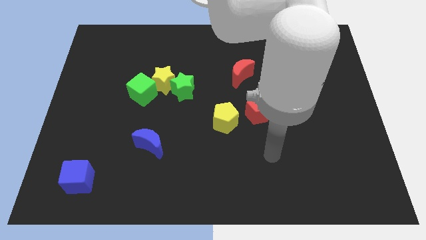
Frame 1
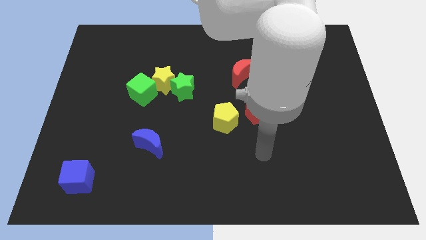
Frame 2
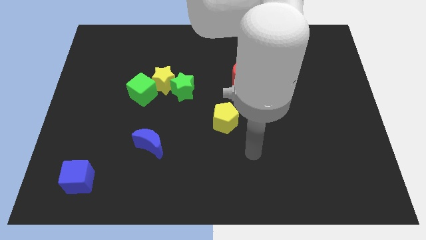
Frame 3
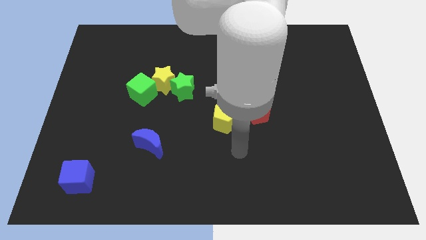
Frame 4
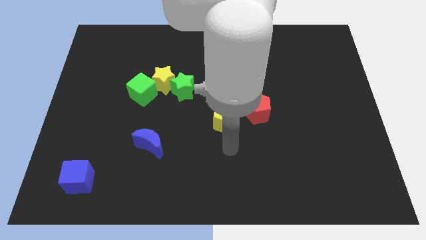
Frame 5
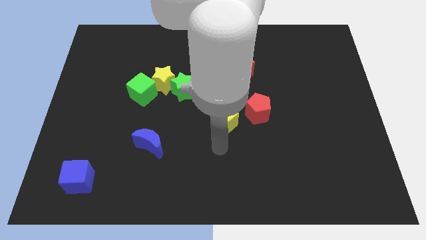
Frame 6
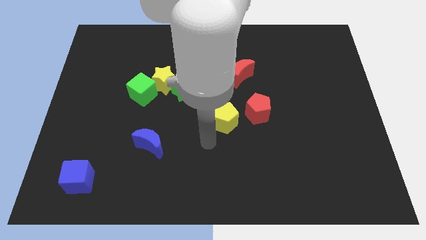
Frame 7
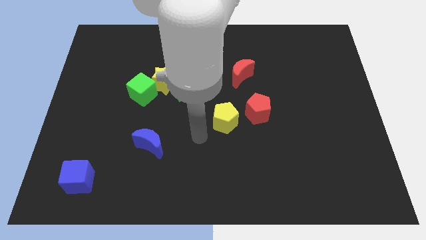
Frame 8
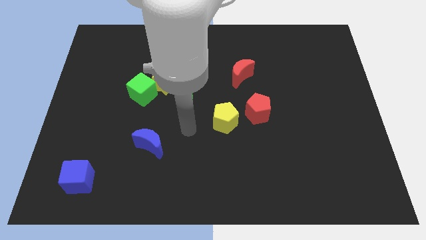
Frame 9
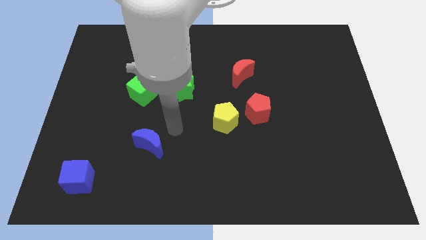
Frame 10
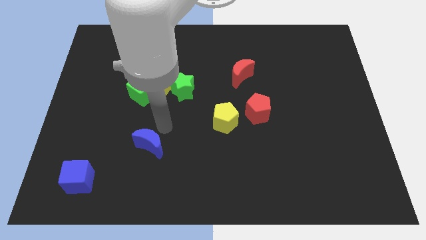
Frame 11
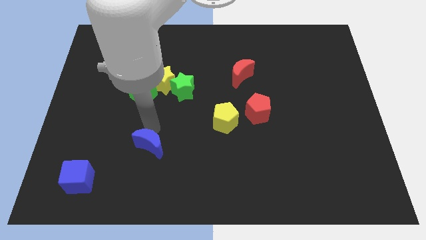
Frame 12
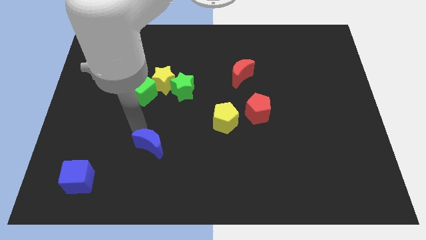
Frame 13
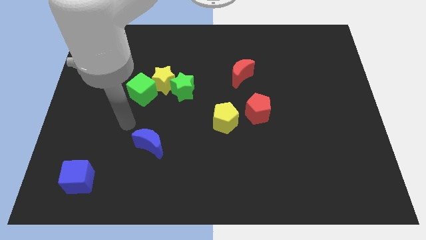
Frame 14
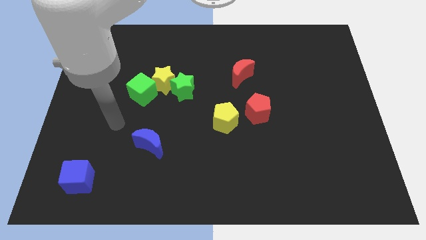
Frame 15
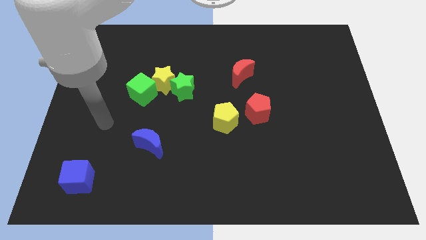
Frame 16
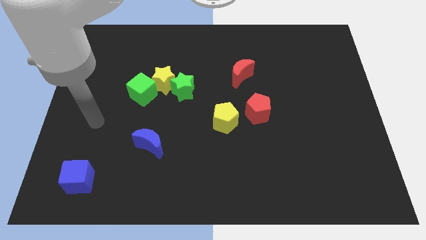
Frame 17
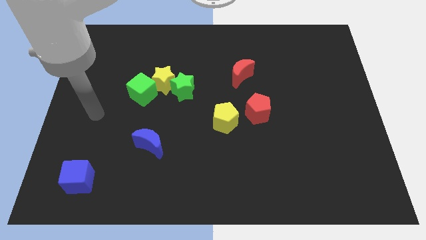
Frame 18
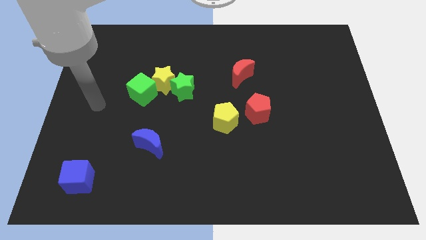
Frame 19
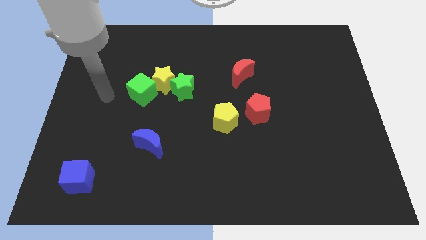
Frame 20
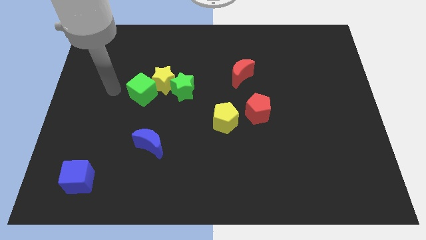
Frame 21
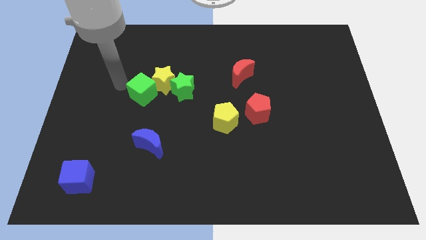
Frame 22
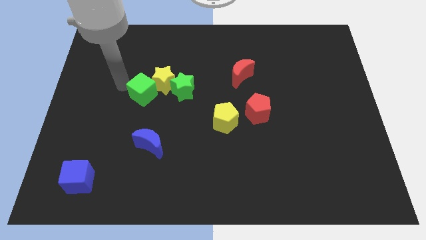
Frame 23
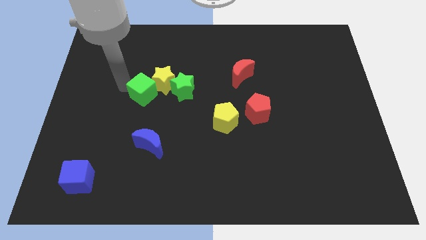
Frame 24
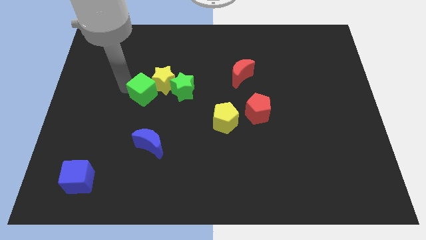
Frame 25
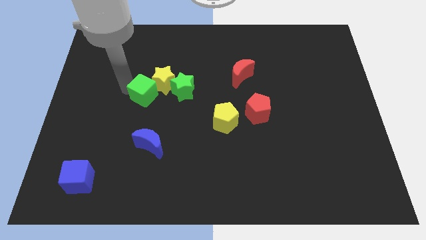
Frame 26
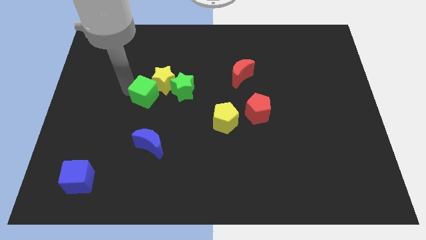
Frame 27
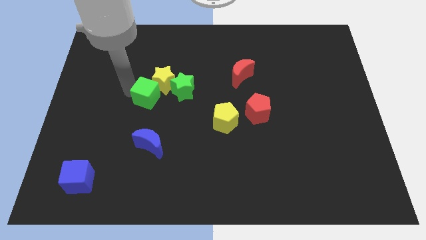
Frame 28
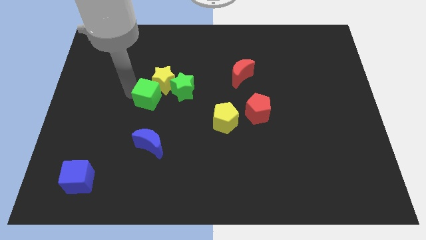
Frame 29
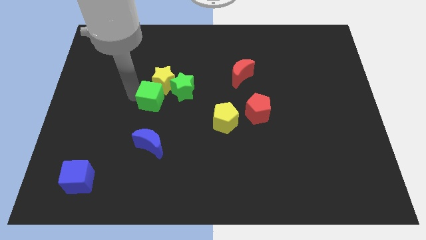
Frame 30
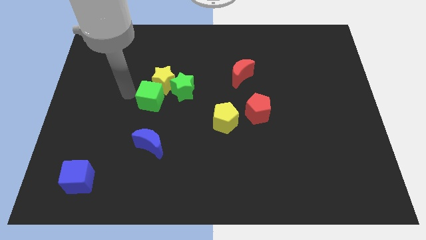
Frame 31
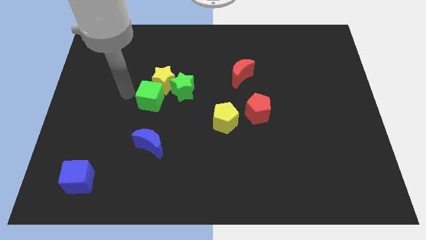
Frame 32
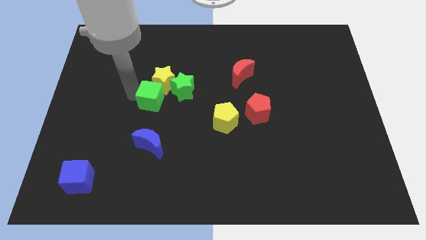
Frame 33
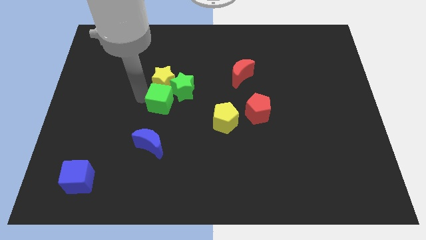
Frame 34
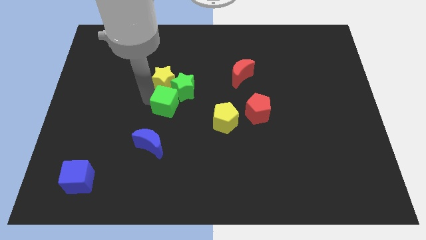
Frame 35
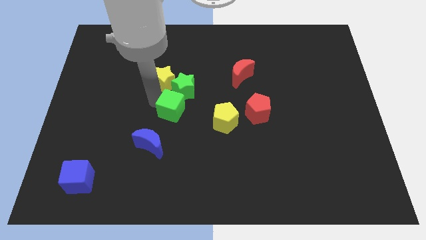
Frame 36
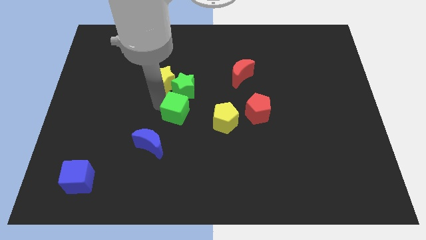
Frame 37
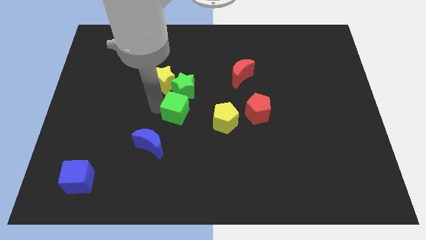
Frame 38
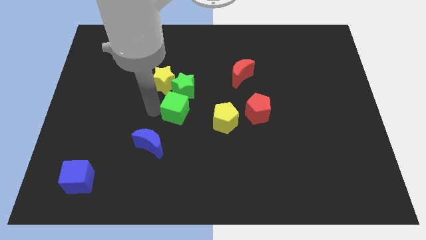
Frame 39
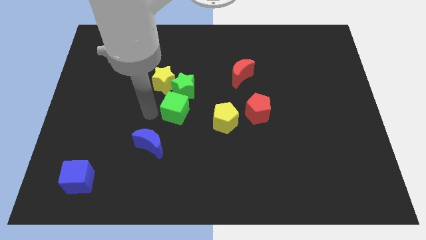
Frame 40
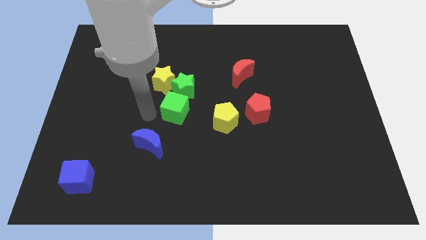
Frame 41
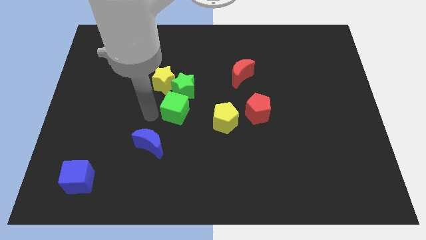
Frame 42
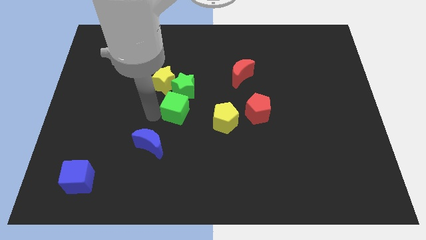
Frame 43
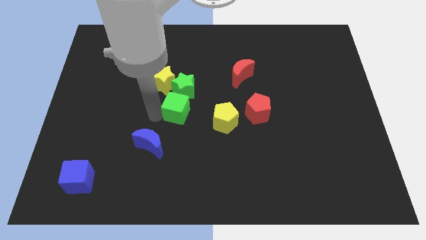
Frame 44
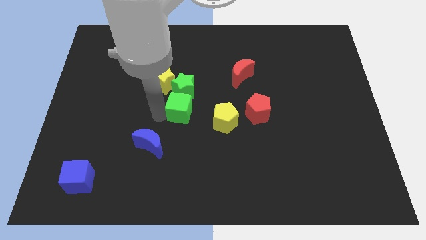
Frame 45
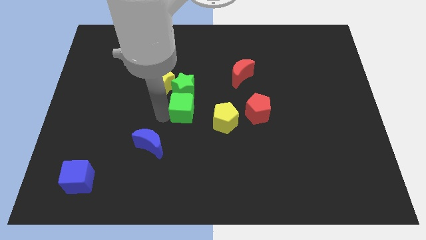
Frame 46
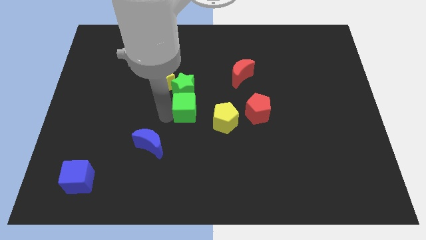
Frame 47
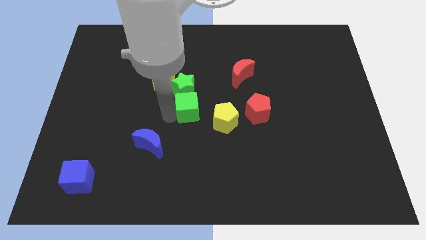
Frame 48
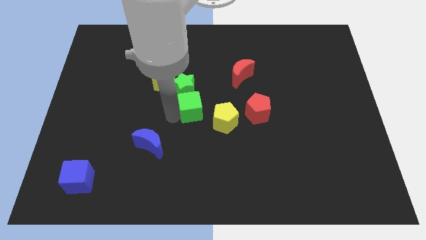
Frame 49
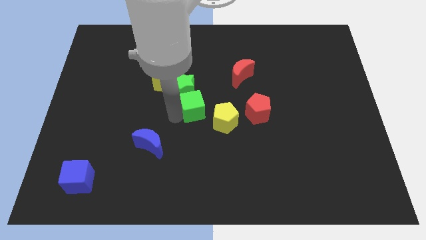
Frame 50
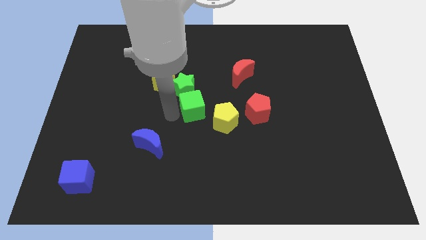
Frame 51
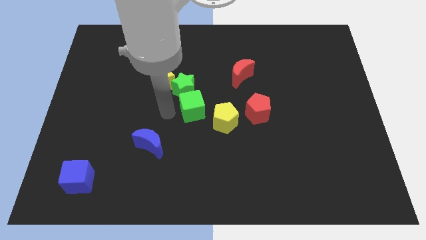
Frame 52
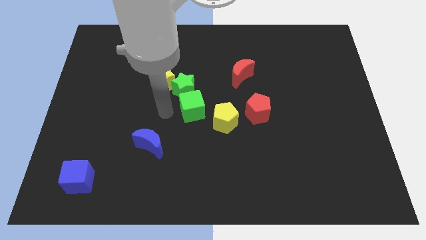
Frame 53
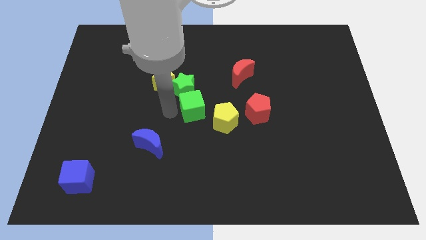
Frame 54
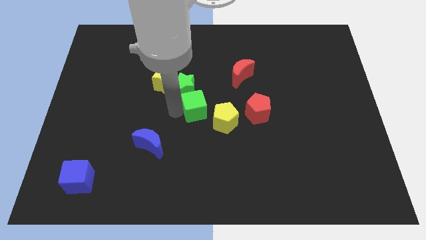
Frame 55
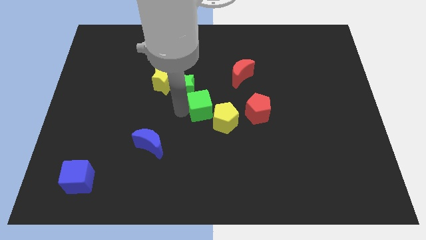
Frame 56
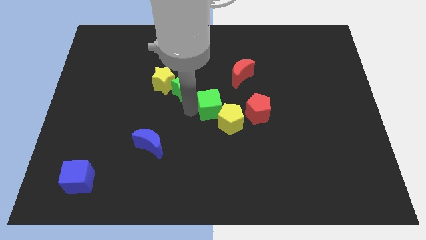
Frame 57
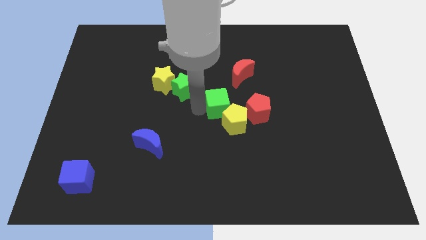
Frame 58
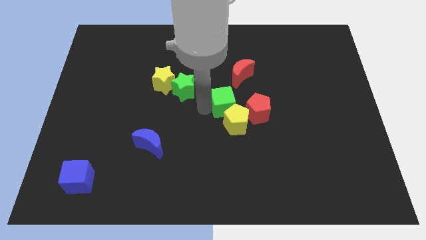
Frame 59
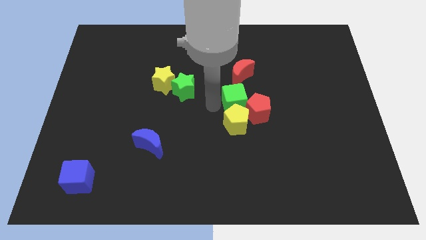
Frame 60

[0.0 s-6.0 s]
slide the green cube towards the red pentagon
